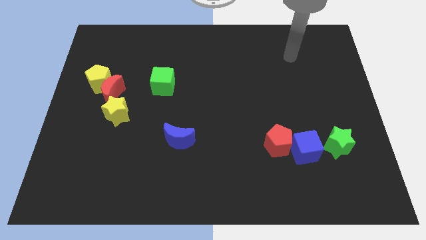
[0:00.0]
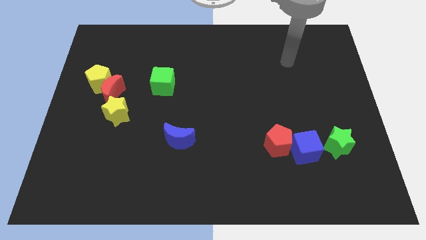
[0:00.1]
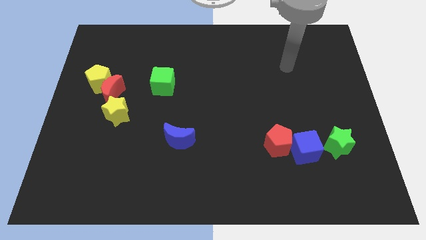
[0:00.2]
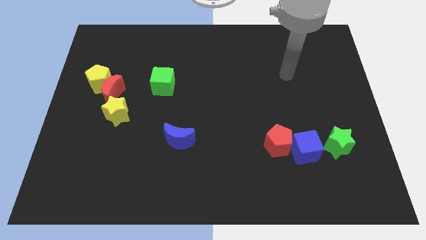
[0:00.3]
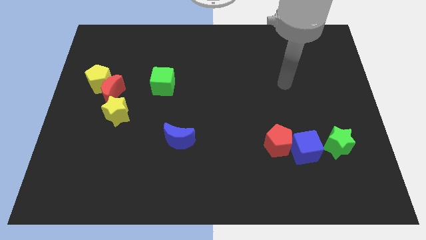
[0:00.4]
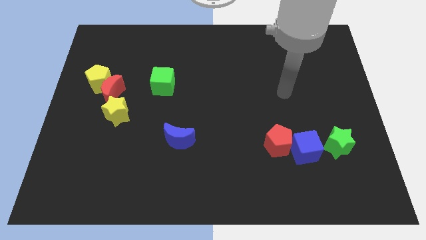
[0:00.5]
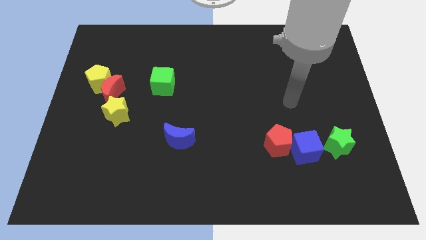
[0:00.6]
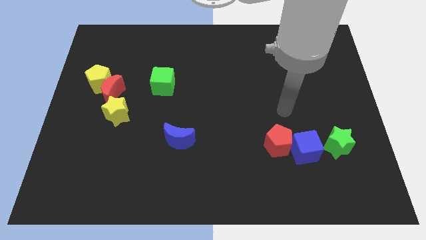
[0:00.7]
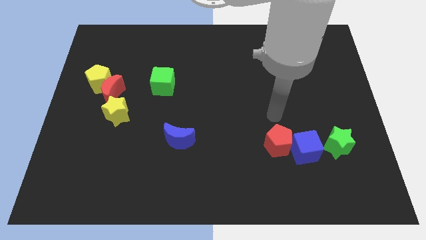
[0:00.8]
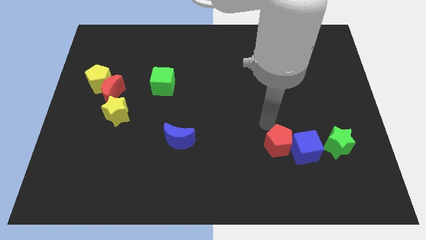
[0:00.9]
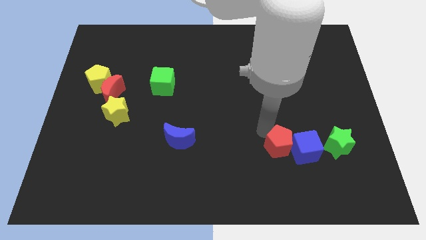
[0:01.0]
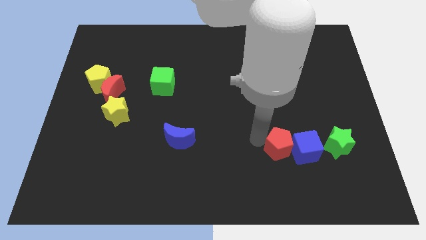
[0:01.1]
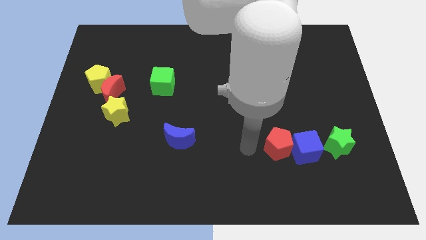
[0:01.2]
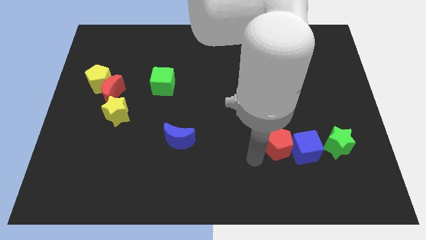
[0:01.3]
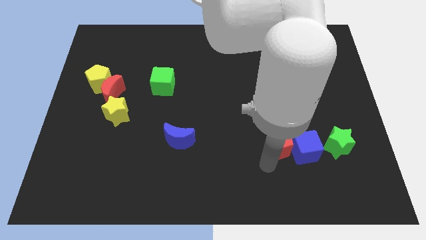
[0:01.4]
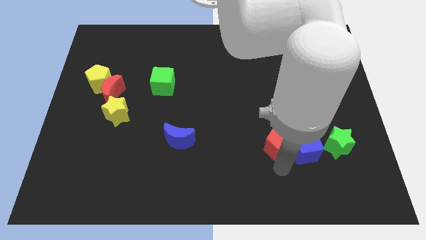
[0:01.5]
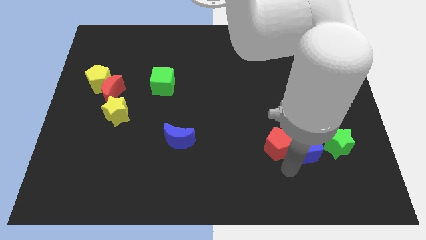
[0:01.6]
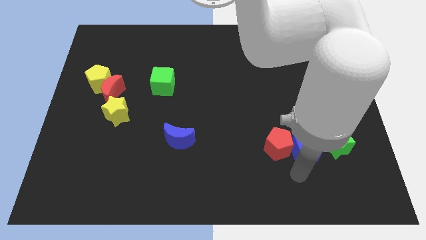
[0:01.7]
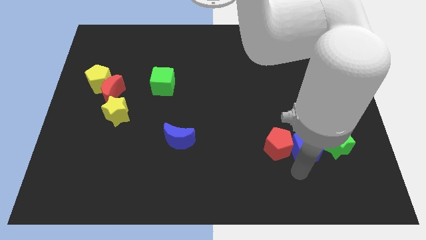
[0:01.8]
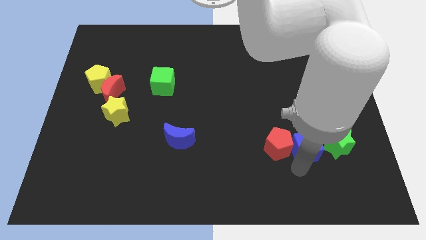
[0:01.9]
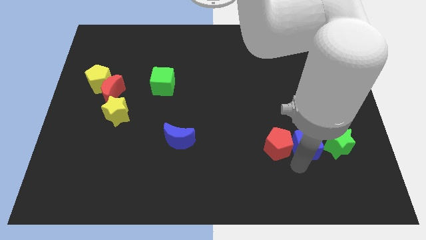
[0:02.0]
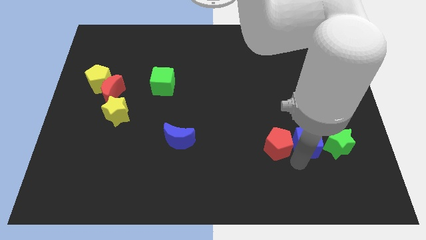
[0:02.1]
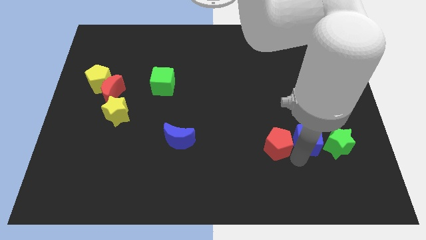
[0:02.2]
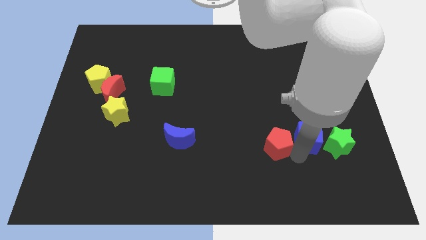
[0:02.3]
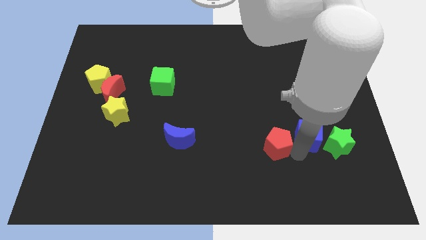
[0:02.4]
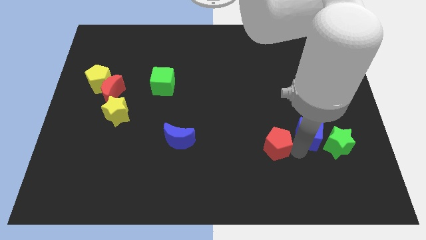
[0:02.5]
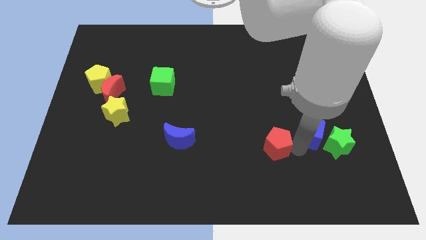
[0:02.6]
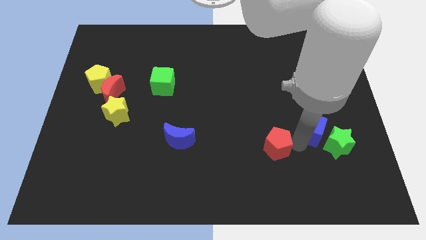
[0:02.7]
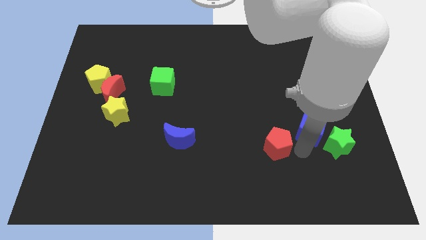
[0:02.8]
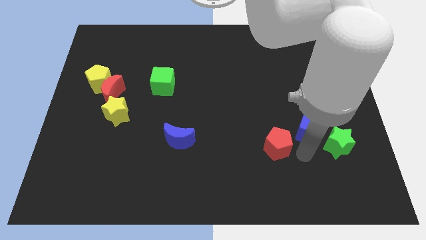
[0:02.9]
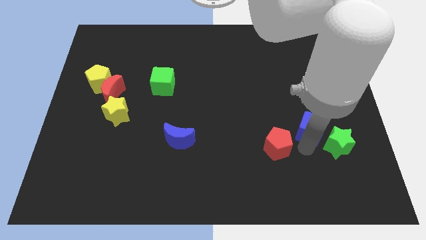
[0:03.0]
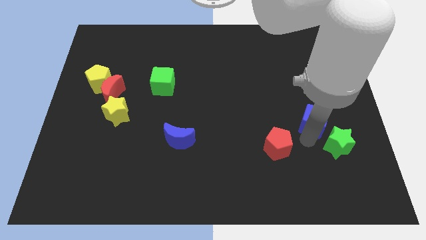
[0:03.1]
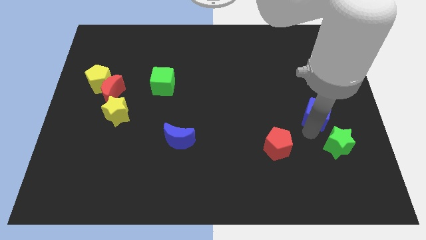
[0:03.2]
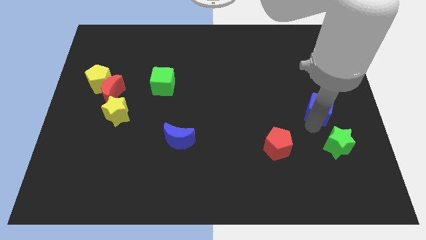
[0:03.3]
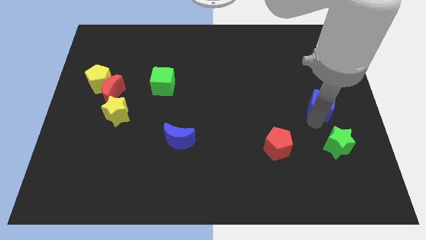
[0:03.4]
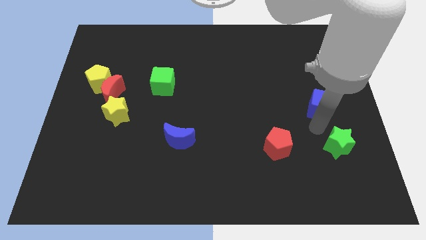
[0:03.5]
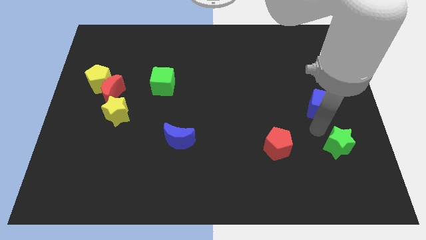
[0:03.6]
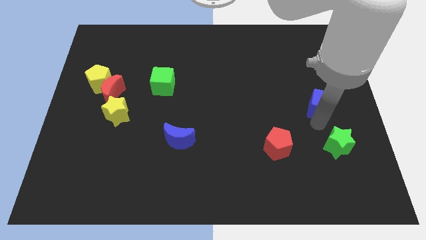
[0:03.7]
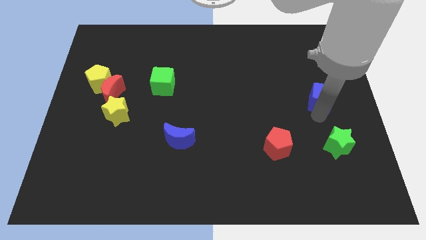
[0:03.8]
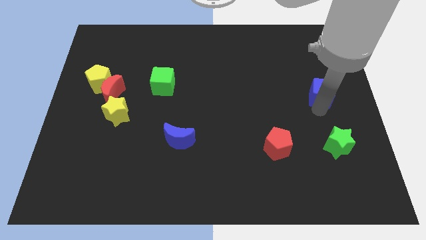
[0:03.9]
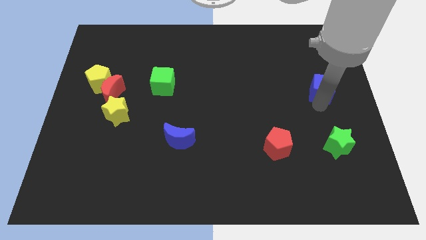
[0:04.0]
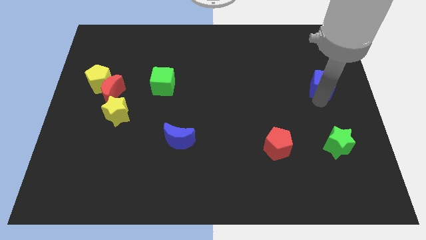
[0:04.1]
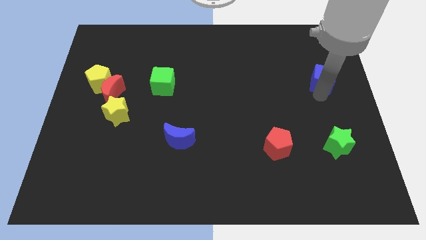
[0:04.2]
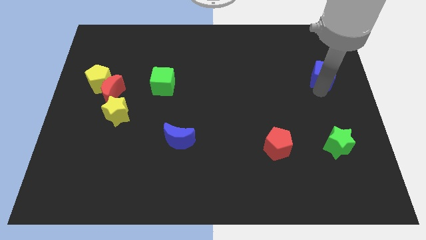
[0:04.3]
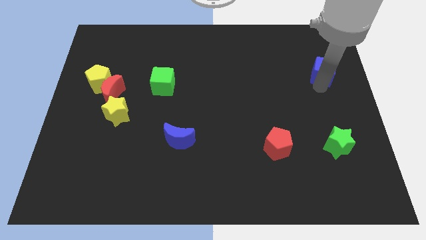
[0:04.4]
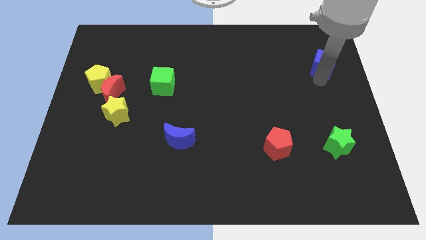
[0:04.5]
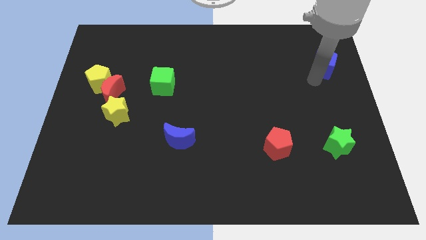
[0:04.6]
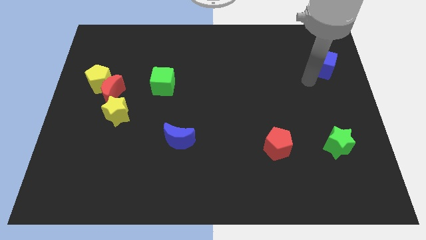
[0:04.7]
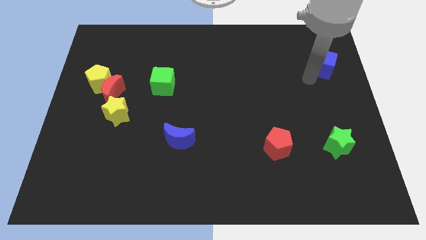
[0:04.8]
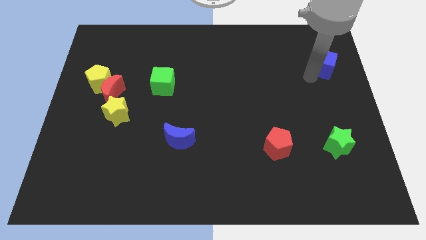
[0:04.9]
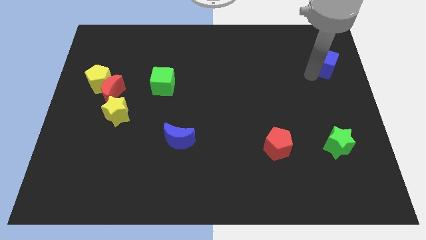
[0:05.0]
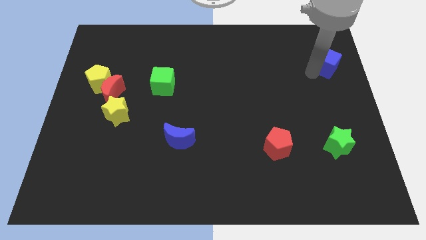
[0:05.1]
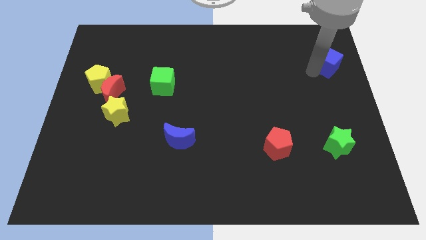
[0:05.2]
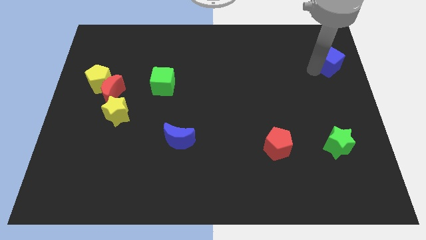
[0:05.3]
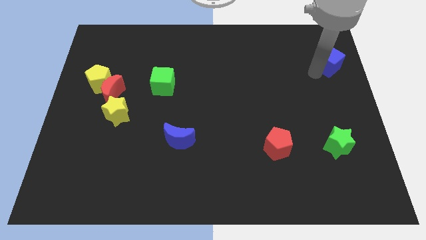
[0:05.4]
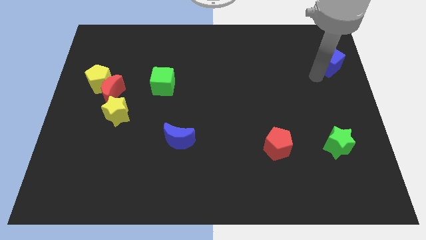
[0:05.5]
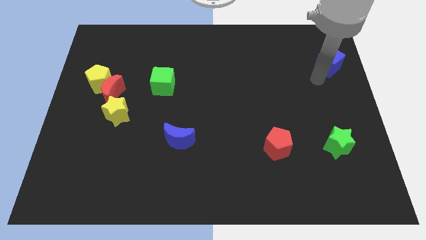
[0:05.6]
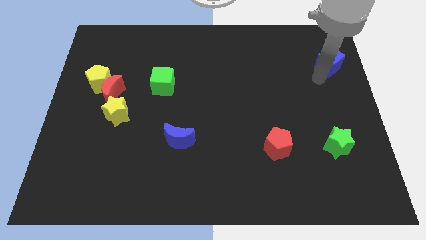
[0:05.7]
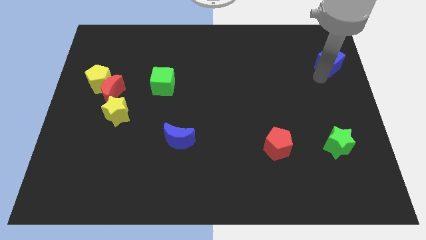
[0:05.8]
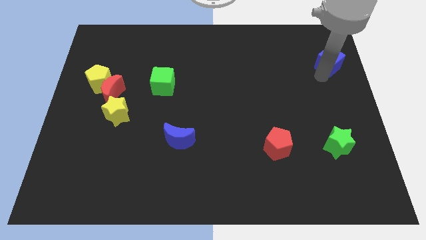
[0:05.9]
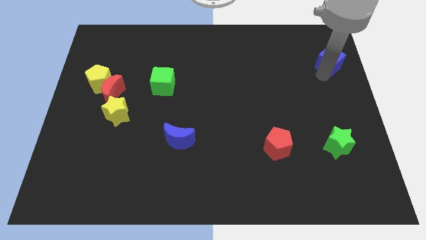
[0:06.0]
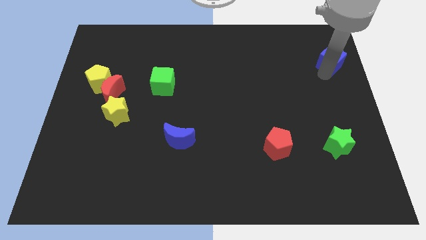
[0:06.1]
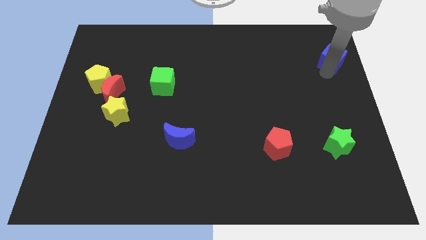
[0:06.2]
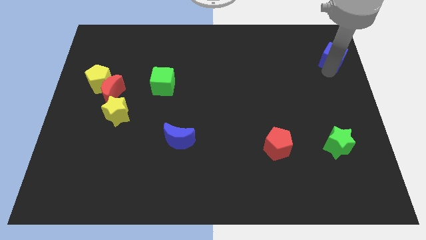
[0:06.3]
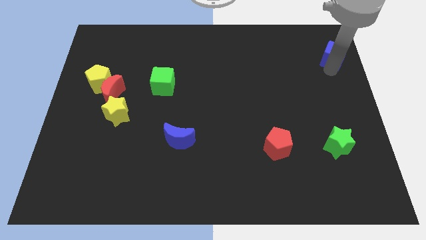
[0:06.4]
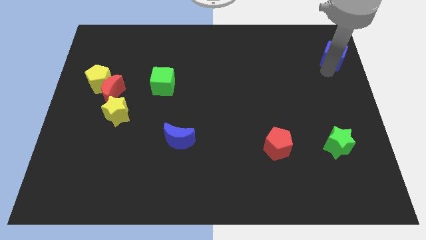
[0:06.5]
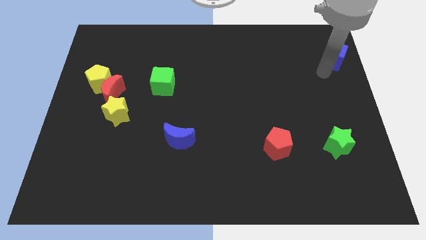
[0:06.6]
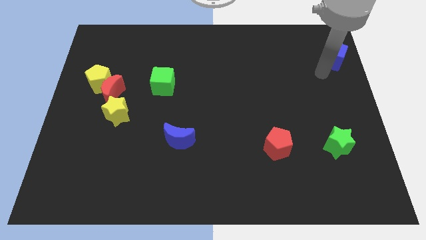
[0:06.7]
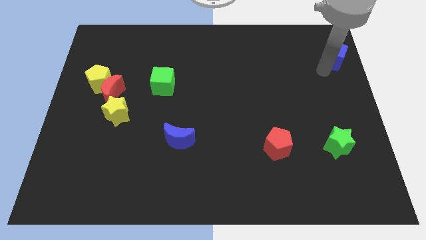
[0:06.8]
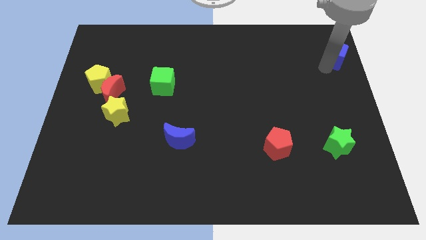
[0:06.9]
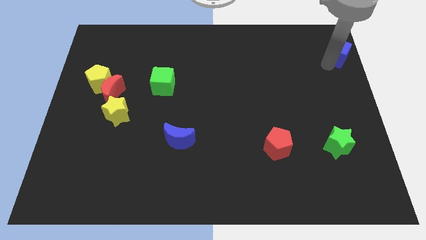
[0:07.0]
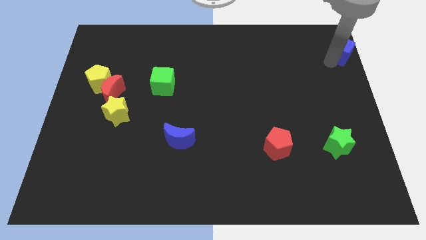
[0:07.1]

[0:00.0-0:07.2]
slide the blue cube to the top right of the board
